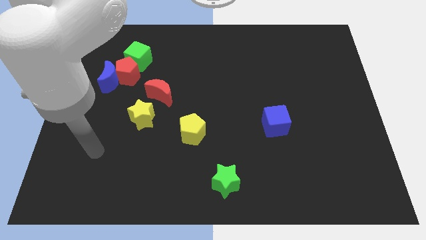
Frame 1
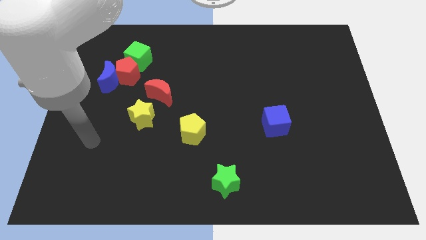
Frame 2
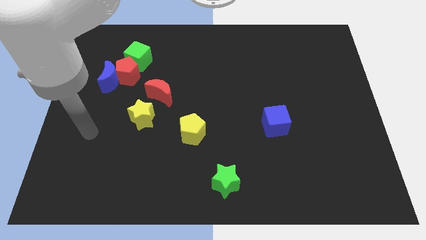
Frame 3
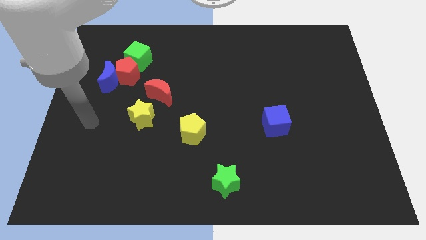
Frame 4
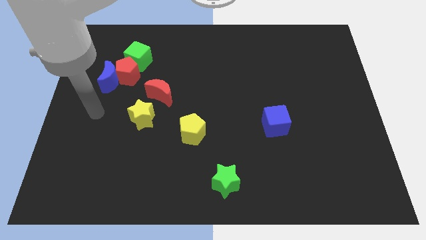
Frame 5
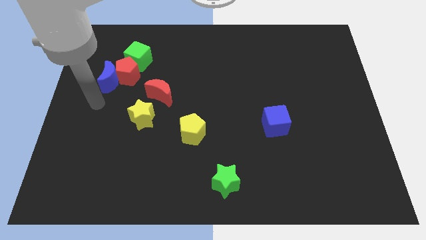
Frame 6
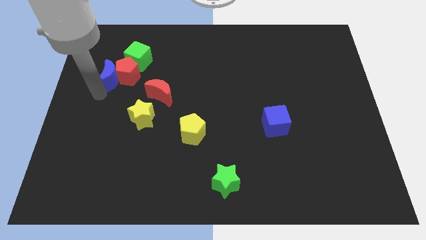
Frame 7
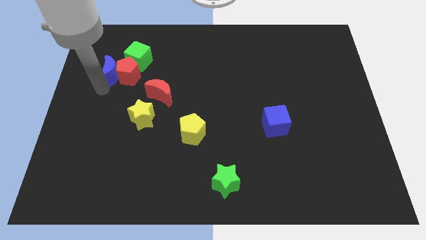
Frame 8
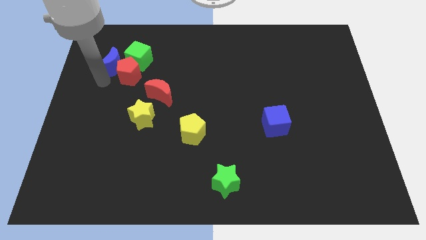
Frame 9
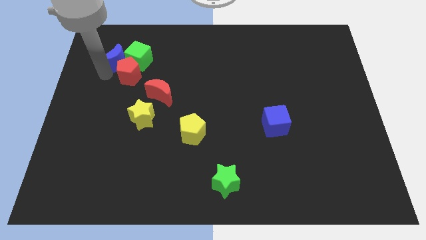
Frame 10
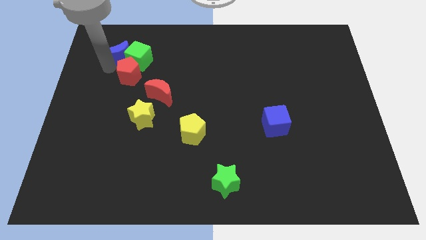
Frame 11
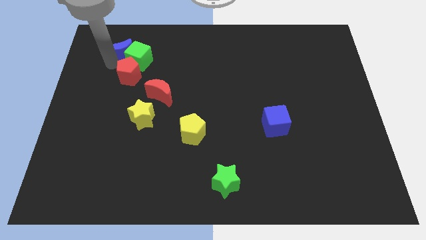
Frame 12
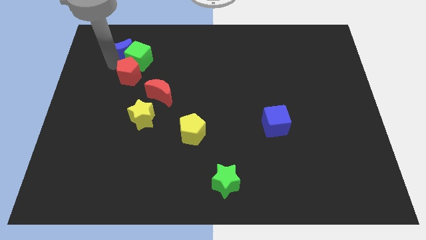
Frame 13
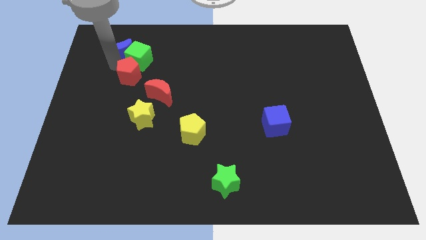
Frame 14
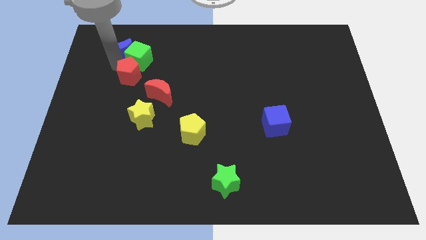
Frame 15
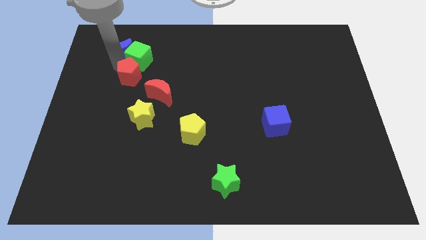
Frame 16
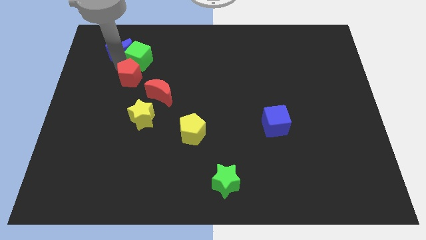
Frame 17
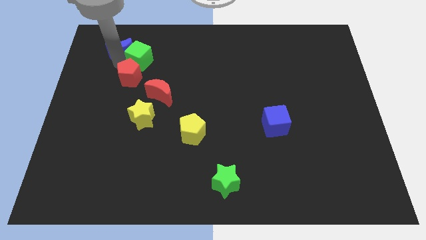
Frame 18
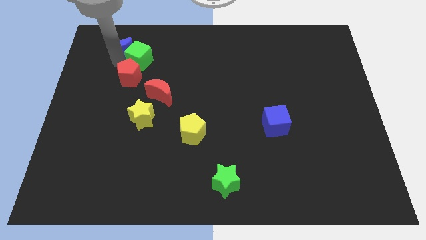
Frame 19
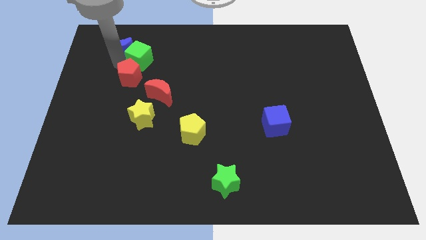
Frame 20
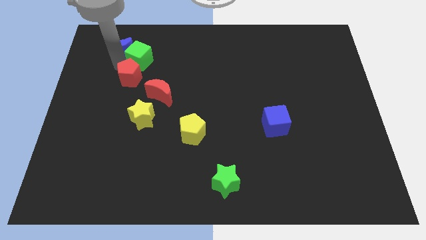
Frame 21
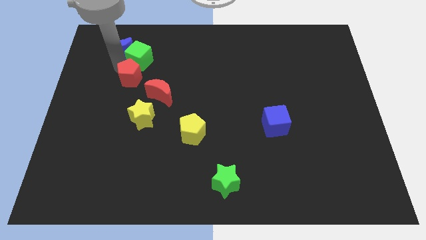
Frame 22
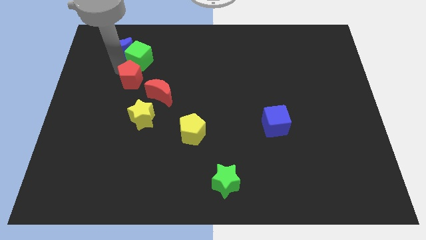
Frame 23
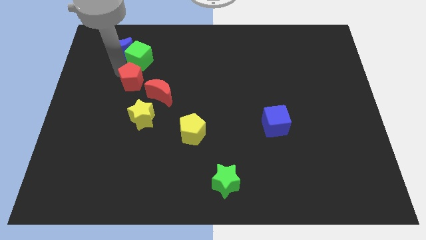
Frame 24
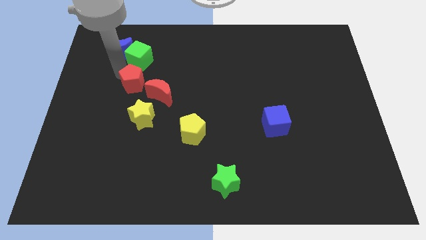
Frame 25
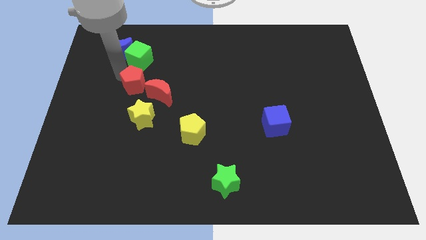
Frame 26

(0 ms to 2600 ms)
move the red pentagon away from the blue moon and green cube

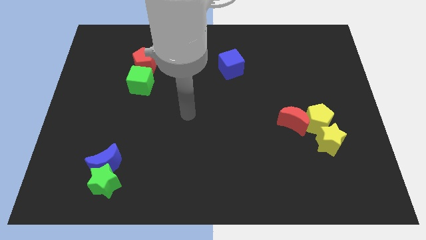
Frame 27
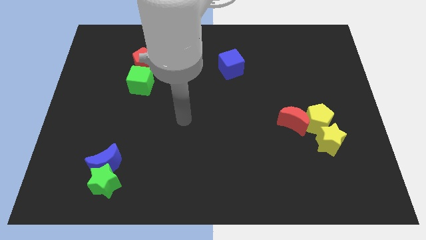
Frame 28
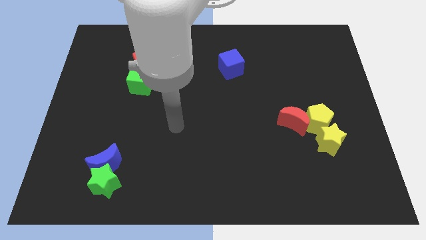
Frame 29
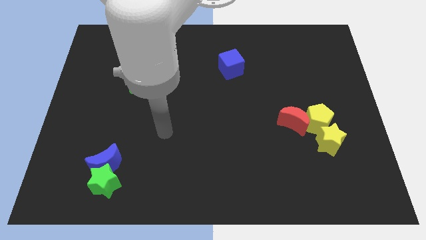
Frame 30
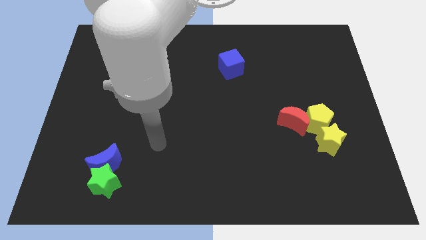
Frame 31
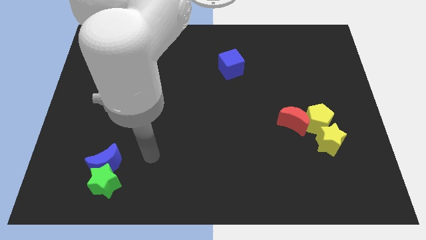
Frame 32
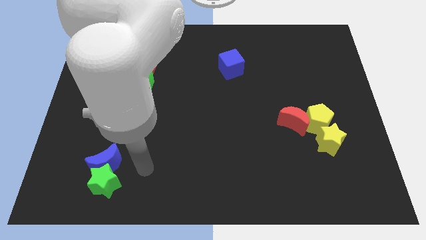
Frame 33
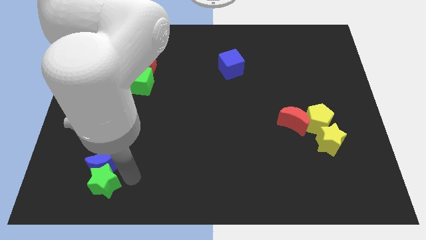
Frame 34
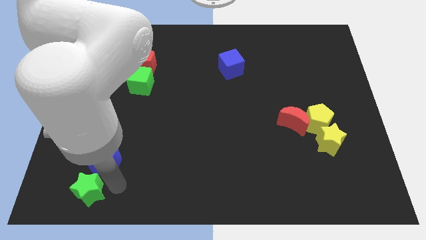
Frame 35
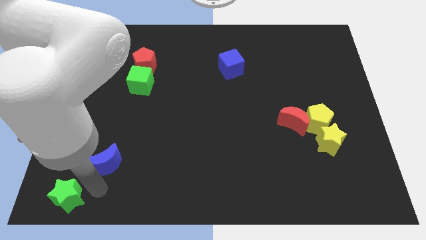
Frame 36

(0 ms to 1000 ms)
separate the blue moon from the green star

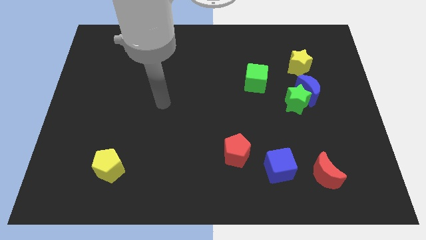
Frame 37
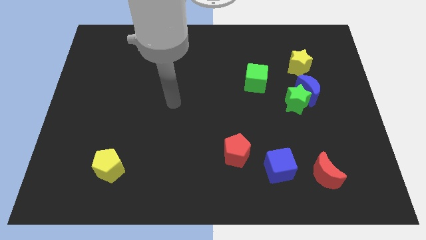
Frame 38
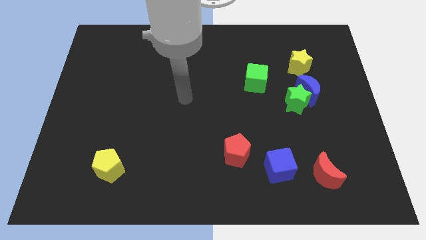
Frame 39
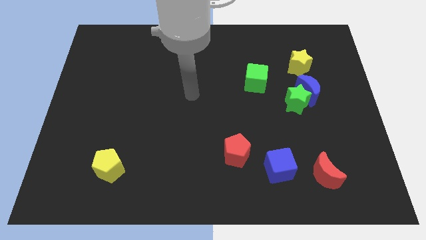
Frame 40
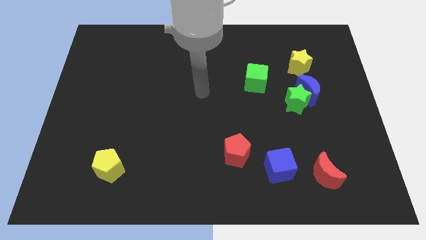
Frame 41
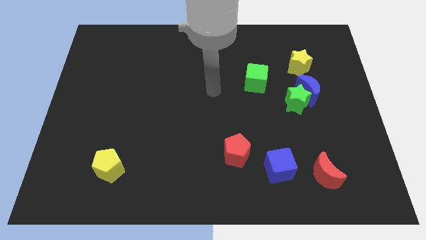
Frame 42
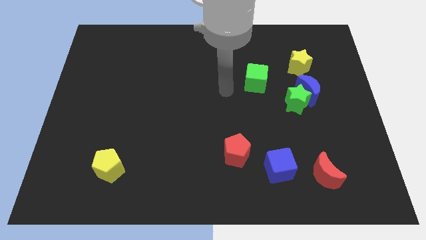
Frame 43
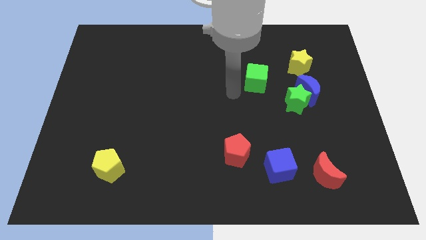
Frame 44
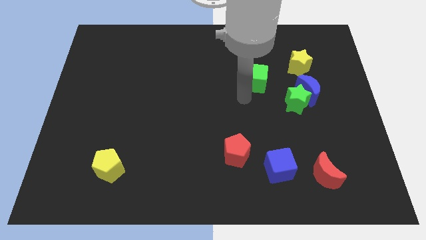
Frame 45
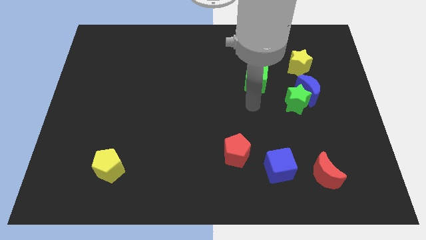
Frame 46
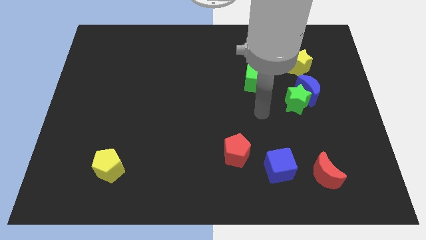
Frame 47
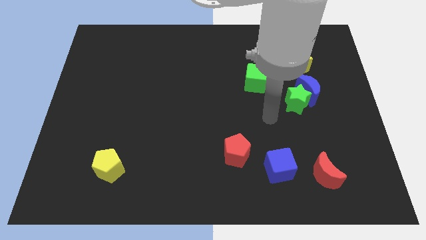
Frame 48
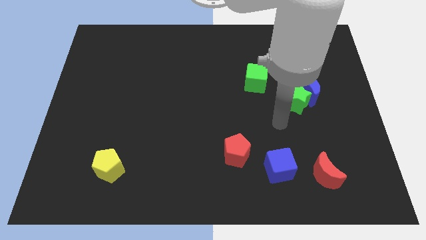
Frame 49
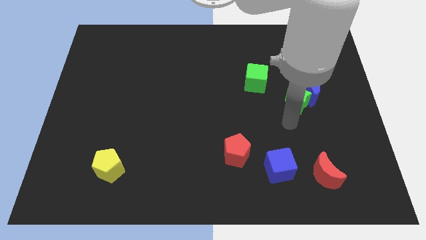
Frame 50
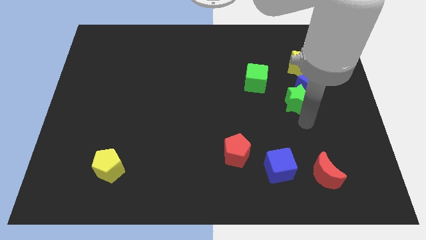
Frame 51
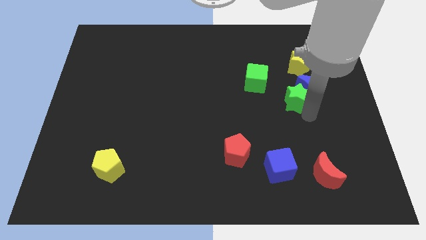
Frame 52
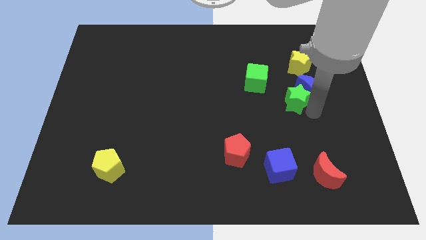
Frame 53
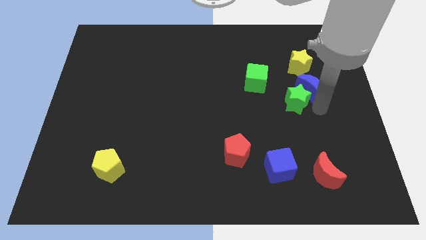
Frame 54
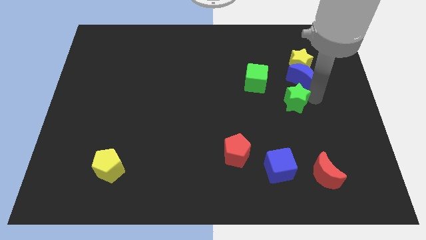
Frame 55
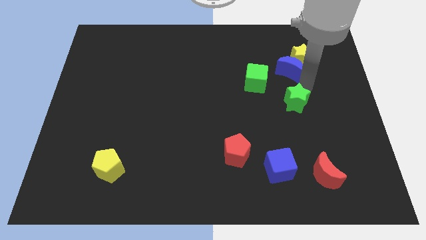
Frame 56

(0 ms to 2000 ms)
pull the green star apart from the blue moon

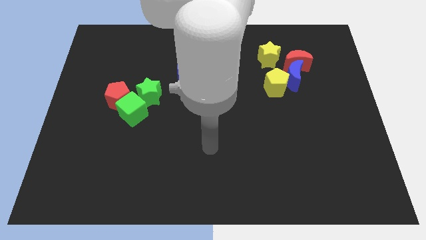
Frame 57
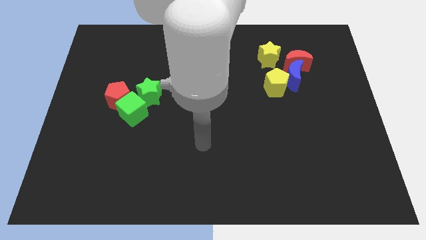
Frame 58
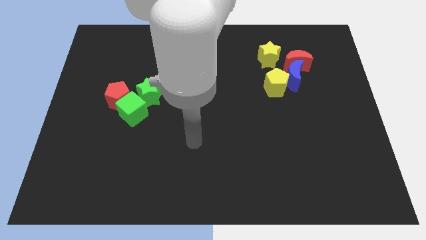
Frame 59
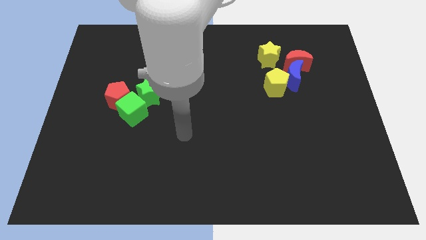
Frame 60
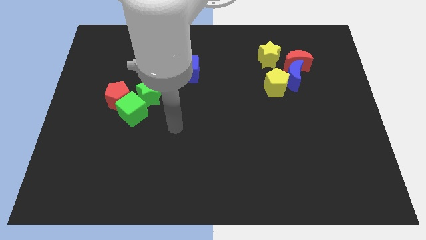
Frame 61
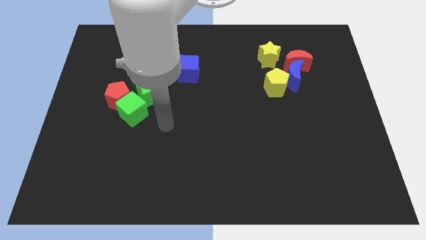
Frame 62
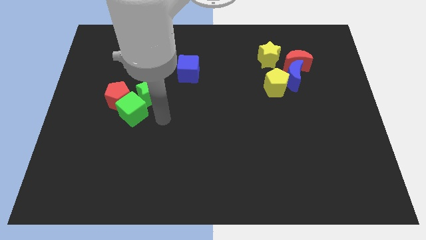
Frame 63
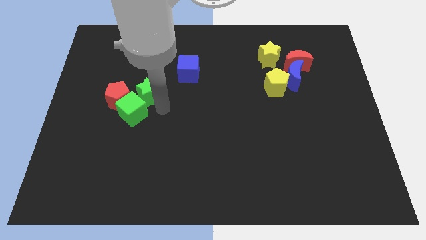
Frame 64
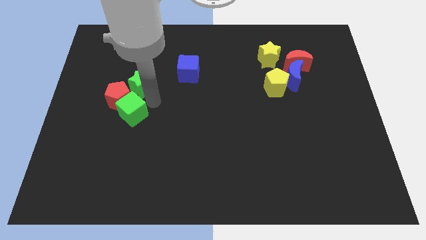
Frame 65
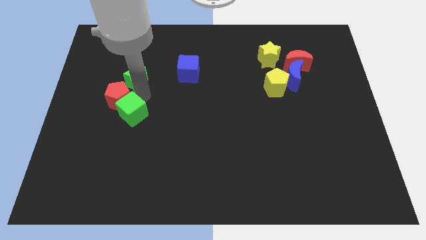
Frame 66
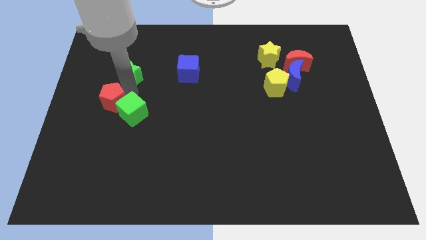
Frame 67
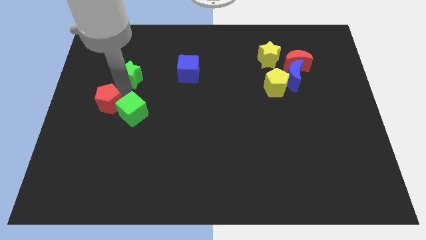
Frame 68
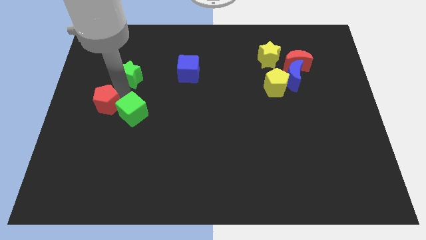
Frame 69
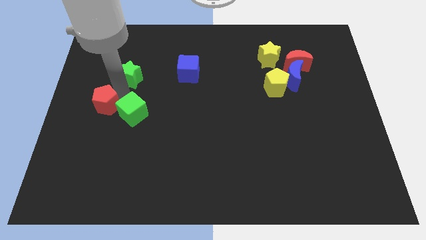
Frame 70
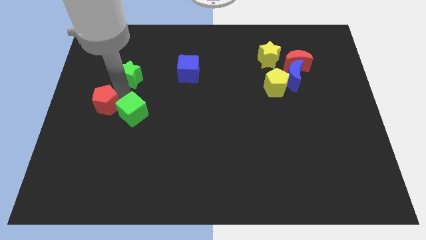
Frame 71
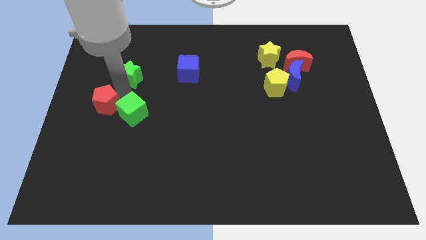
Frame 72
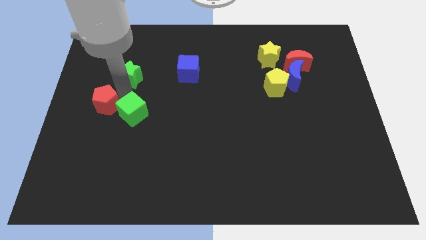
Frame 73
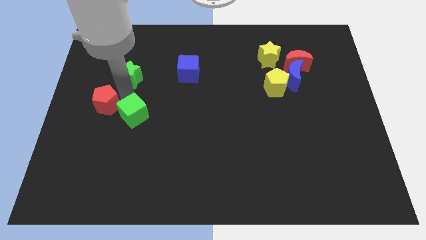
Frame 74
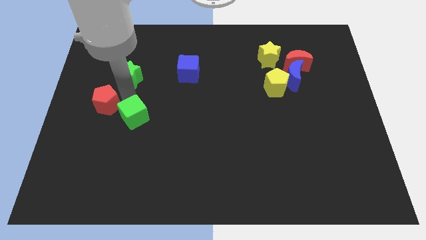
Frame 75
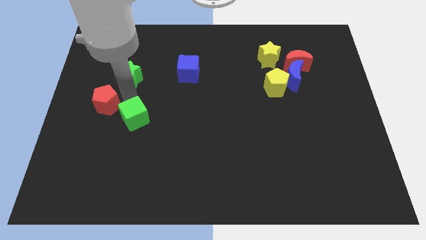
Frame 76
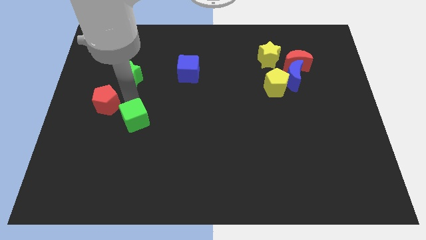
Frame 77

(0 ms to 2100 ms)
separate the green cube from the red pentagon and green star

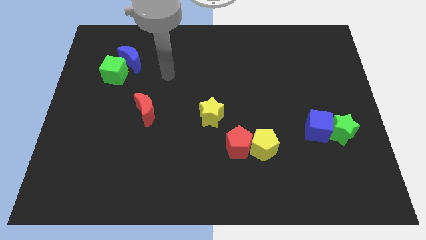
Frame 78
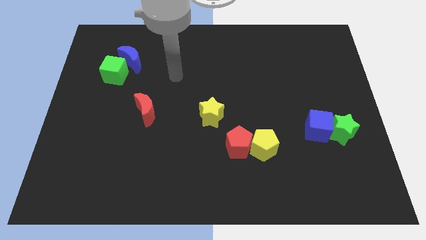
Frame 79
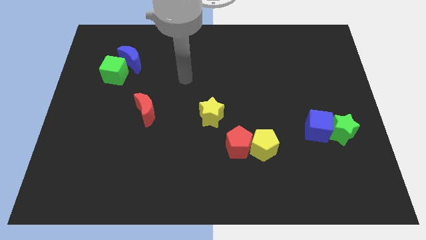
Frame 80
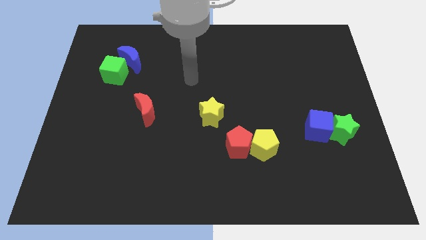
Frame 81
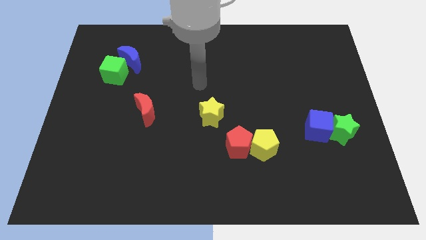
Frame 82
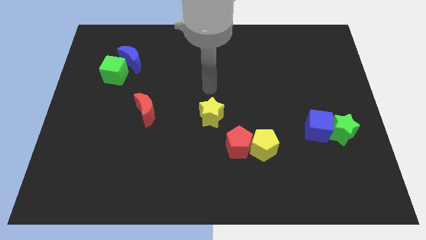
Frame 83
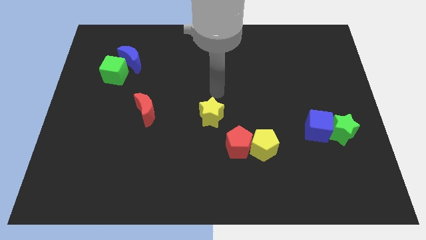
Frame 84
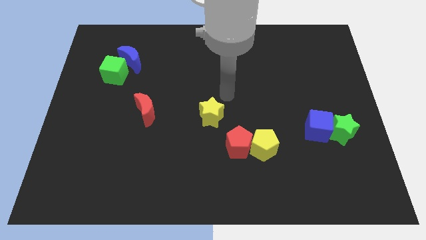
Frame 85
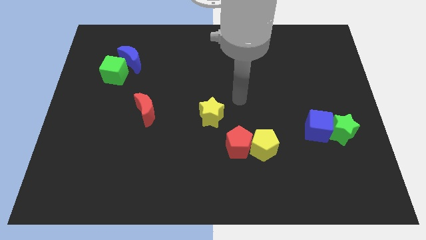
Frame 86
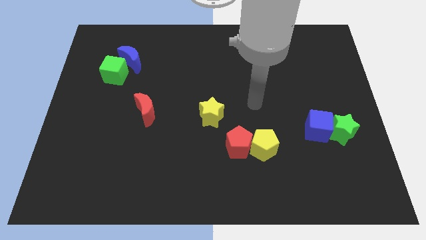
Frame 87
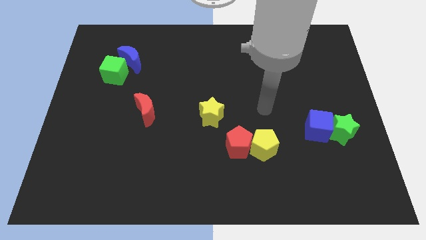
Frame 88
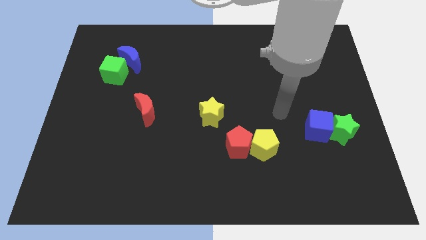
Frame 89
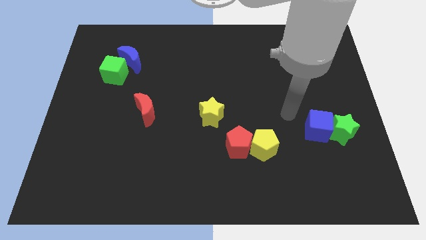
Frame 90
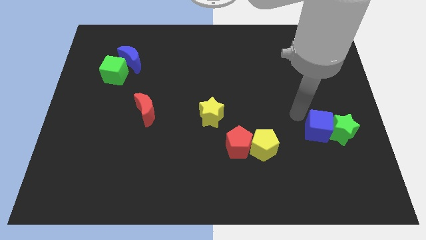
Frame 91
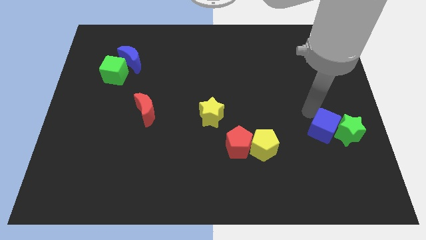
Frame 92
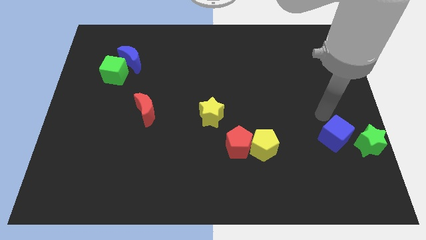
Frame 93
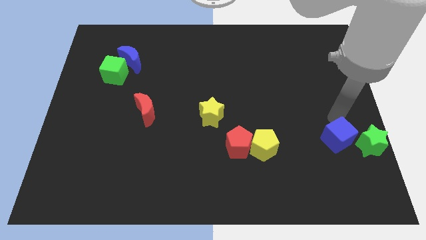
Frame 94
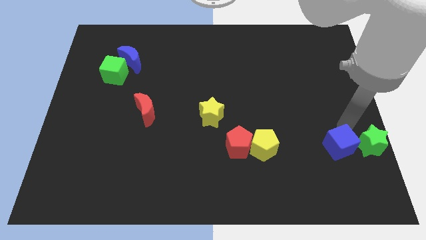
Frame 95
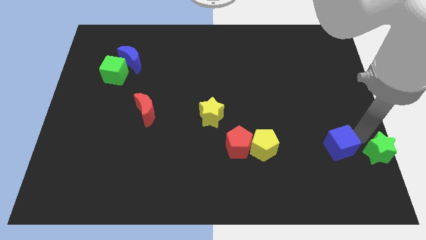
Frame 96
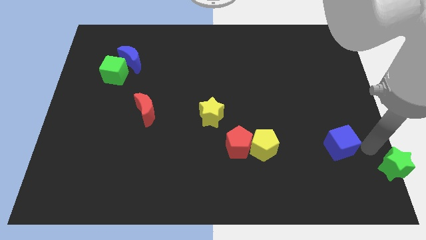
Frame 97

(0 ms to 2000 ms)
separate the blue cube from the green star
